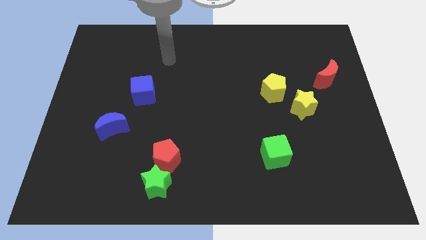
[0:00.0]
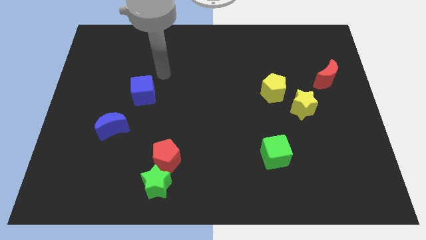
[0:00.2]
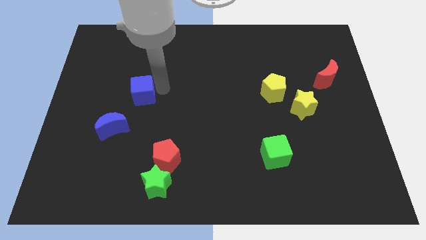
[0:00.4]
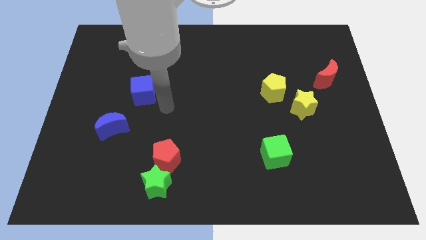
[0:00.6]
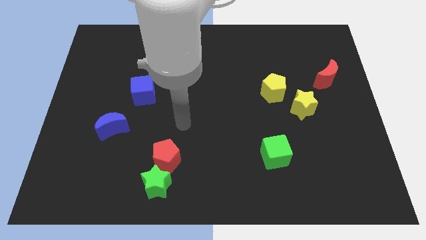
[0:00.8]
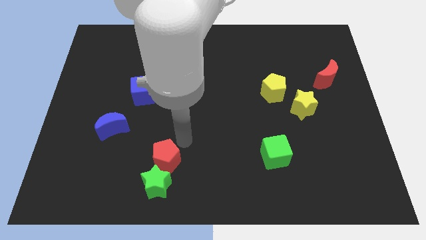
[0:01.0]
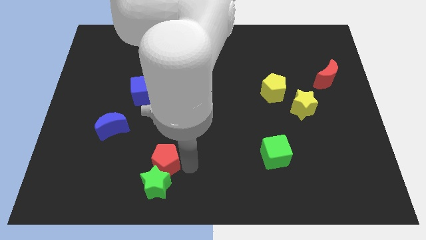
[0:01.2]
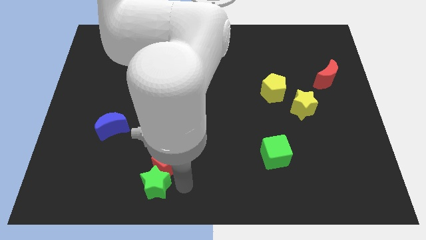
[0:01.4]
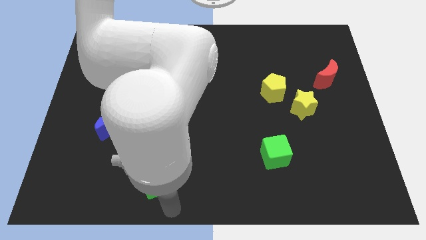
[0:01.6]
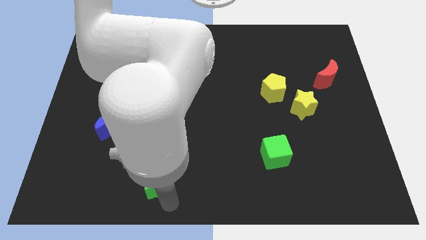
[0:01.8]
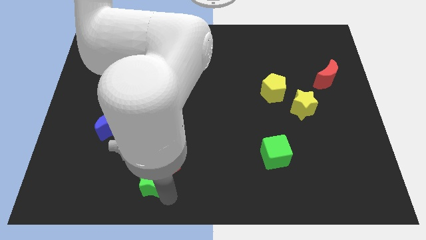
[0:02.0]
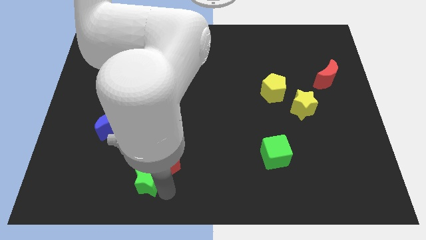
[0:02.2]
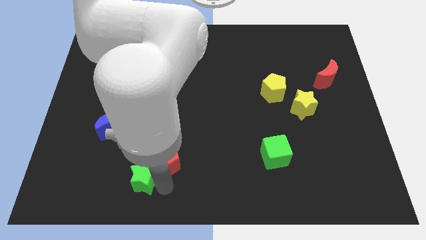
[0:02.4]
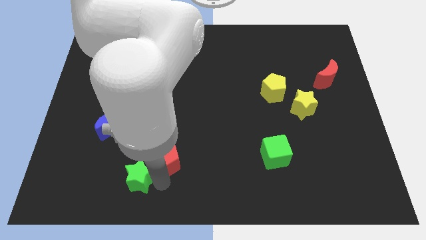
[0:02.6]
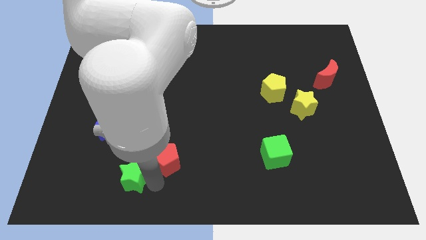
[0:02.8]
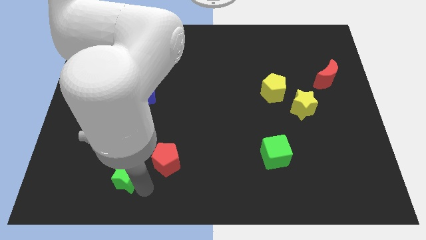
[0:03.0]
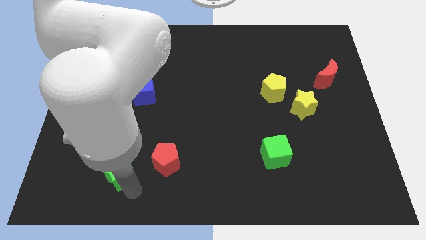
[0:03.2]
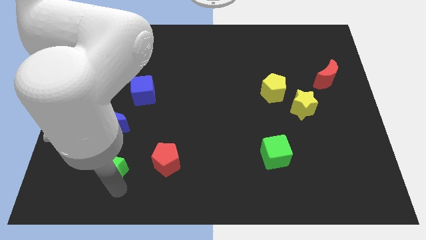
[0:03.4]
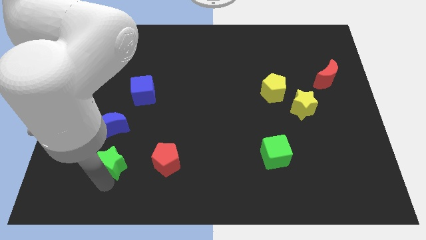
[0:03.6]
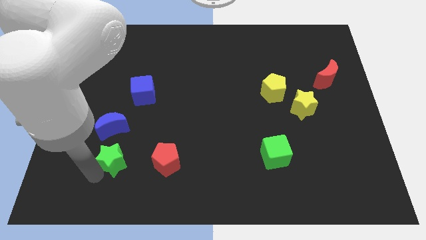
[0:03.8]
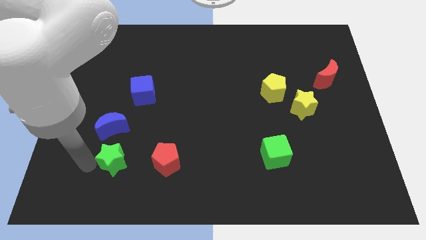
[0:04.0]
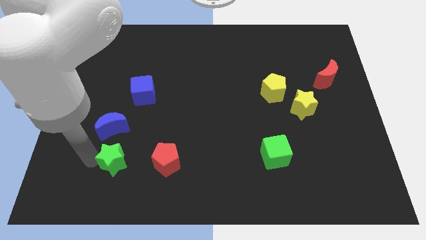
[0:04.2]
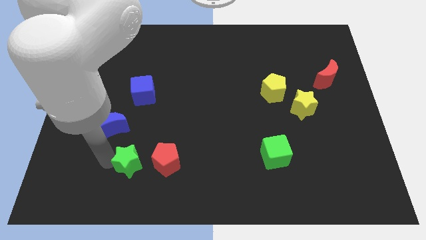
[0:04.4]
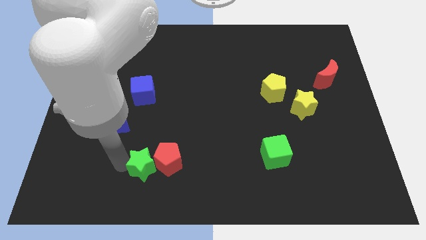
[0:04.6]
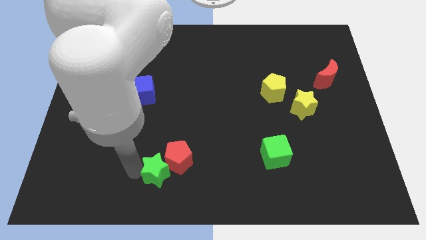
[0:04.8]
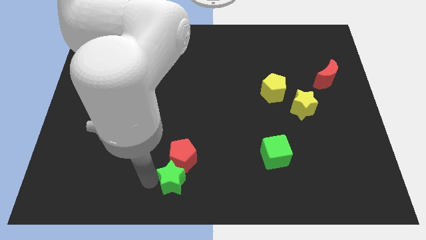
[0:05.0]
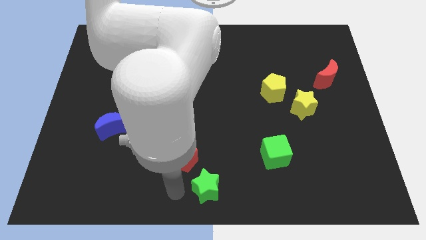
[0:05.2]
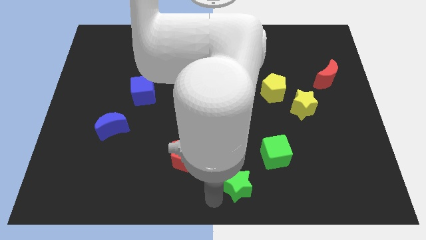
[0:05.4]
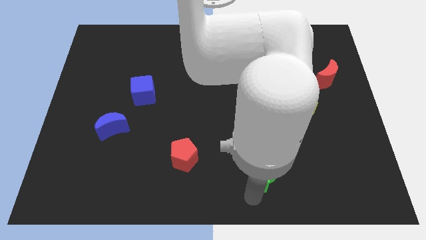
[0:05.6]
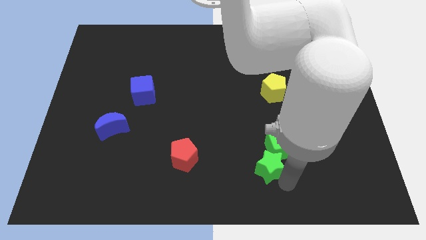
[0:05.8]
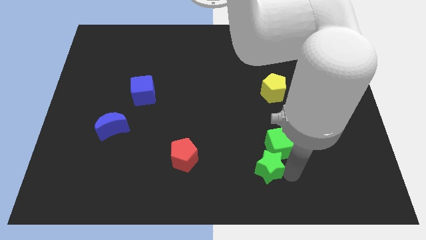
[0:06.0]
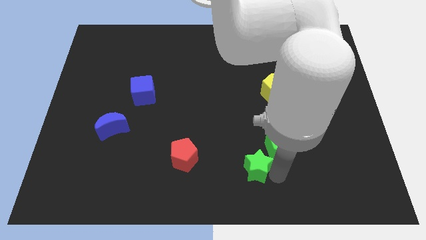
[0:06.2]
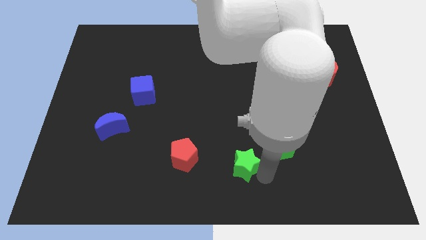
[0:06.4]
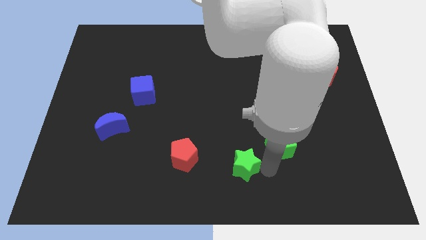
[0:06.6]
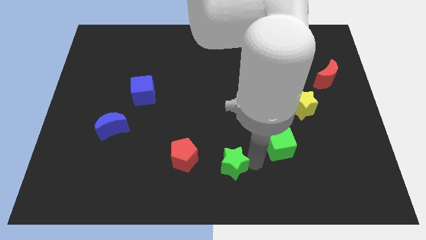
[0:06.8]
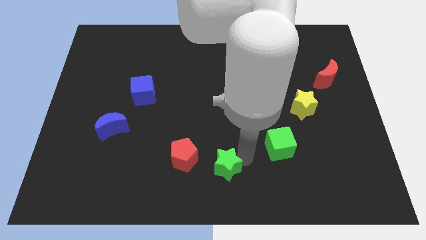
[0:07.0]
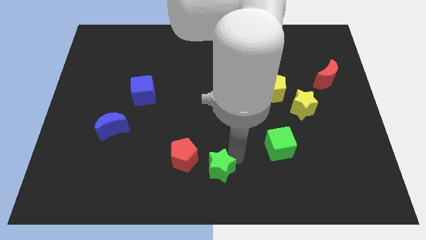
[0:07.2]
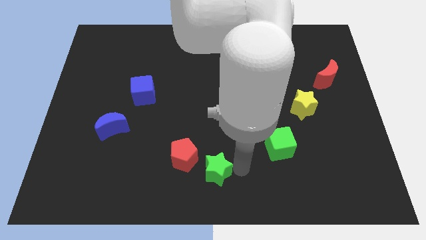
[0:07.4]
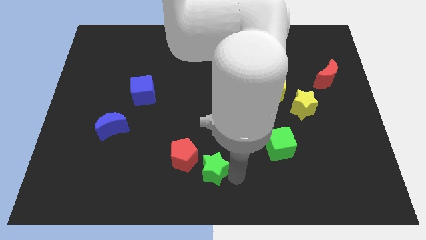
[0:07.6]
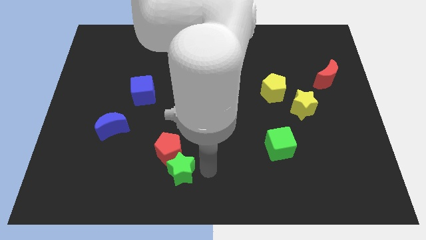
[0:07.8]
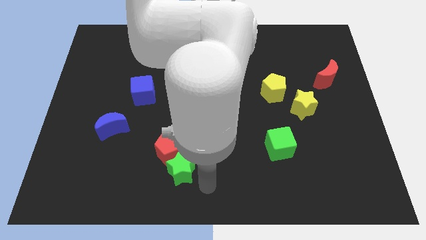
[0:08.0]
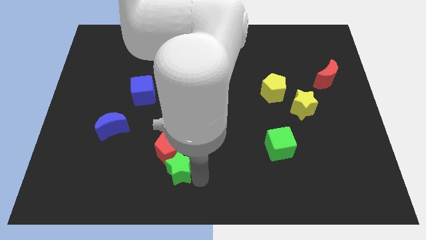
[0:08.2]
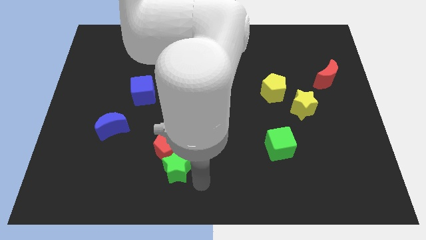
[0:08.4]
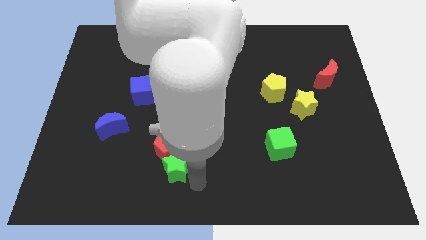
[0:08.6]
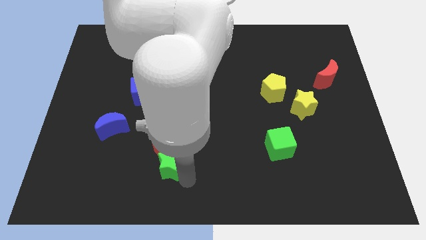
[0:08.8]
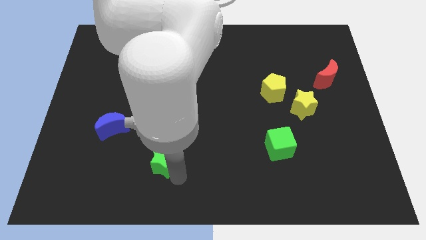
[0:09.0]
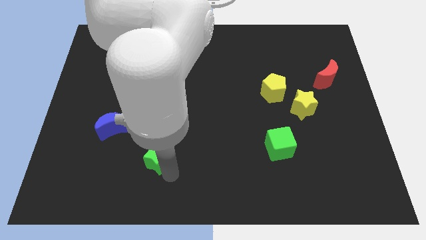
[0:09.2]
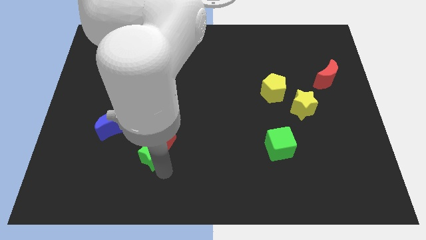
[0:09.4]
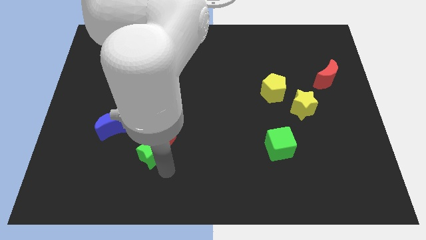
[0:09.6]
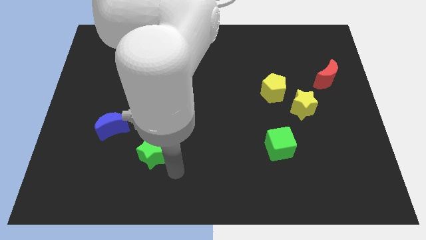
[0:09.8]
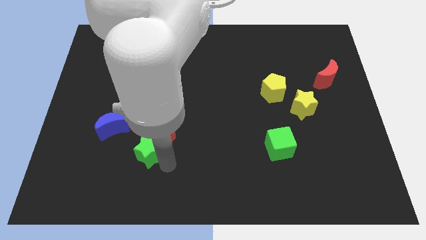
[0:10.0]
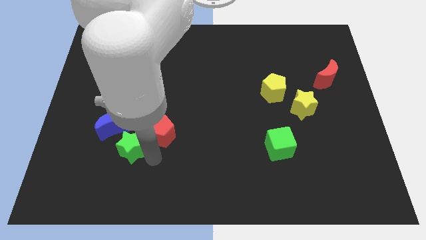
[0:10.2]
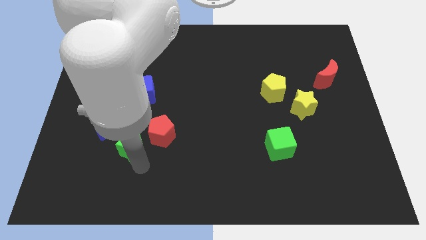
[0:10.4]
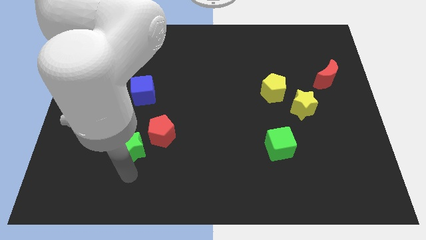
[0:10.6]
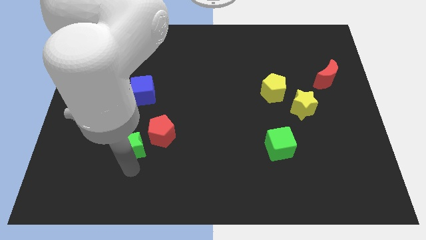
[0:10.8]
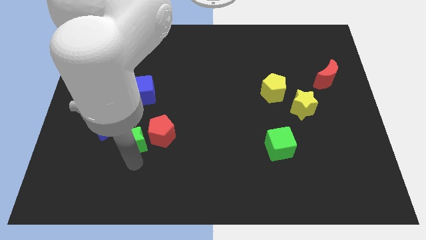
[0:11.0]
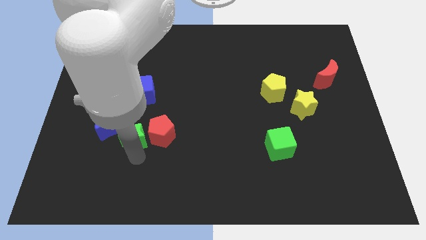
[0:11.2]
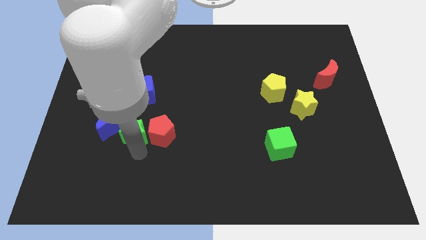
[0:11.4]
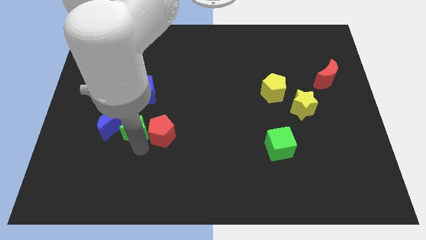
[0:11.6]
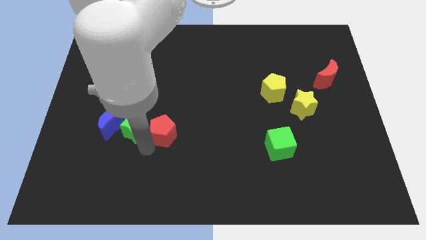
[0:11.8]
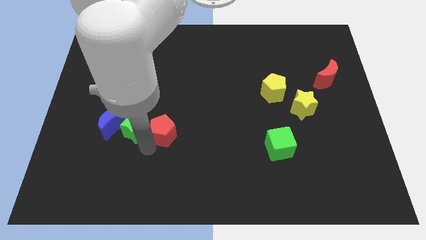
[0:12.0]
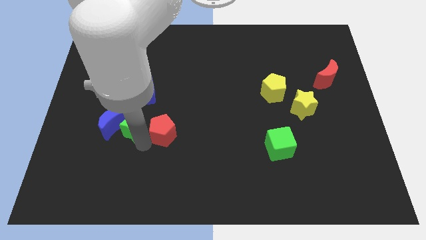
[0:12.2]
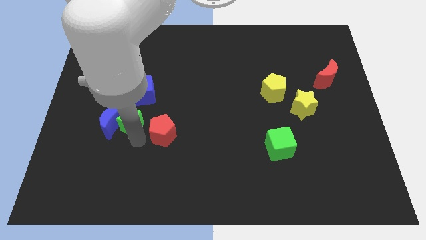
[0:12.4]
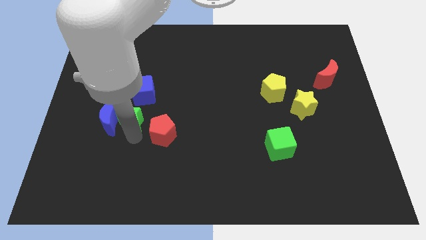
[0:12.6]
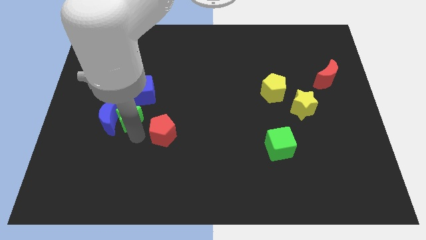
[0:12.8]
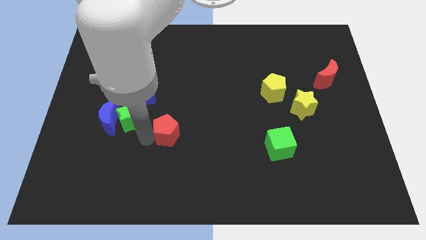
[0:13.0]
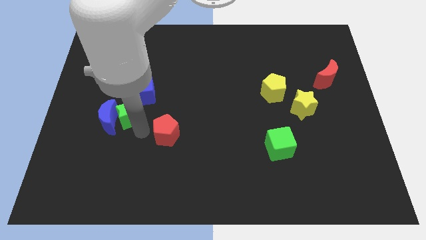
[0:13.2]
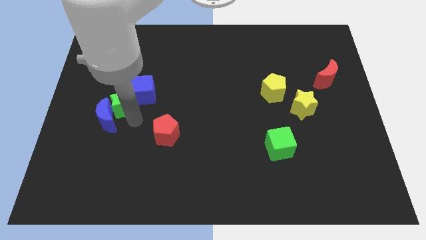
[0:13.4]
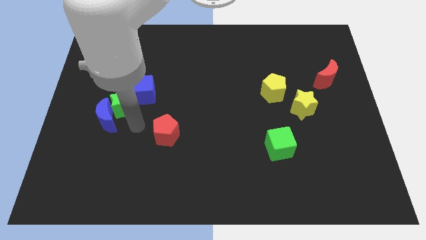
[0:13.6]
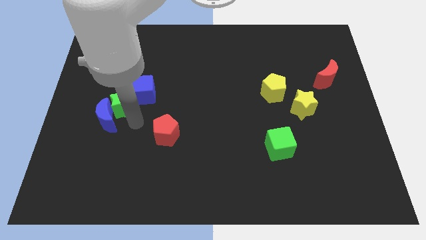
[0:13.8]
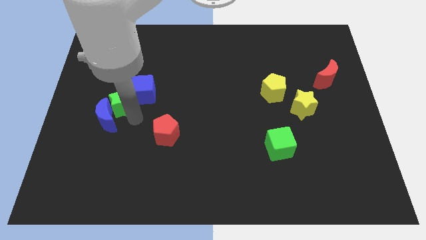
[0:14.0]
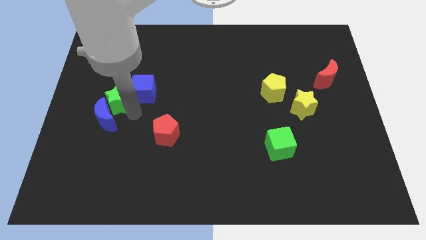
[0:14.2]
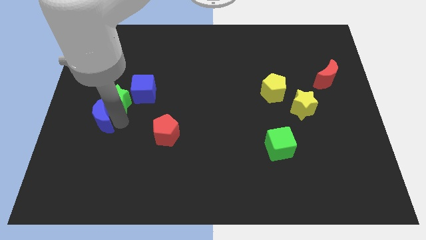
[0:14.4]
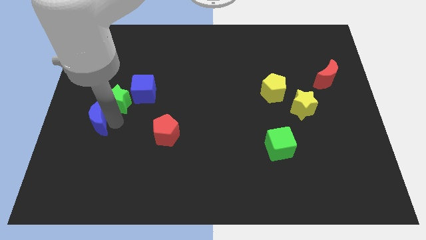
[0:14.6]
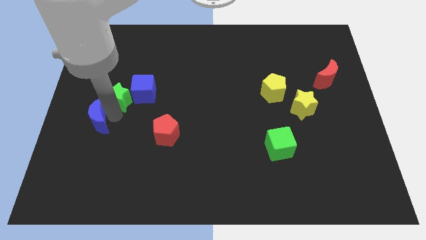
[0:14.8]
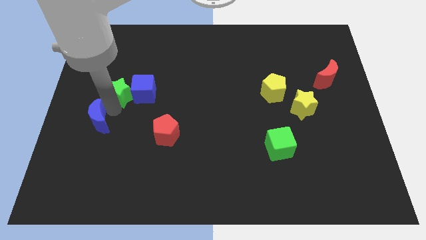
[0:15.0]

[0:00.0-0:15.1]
move the green star diagonally up and to the left of the blue cube
